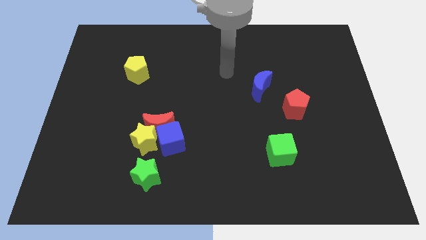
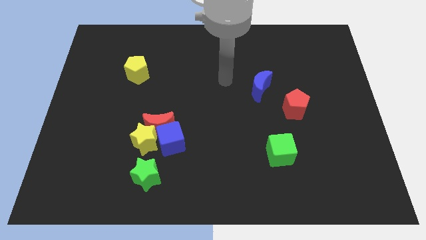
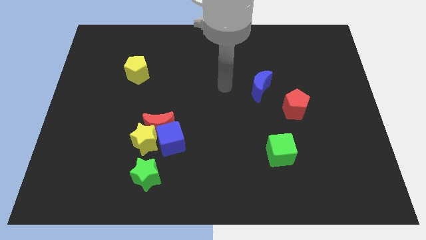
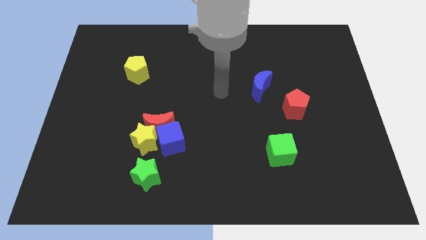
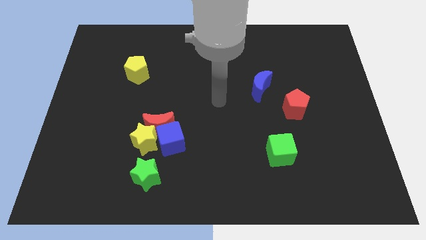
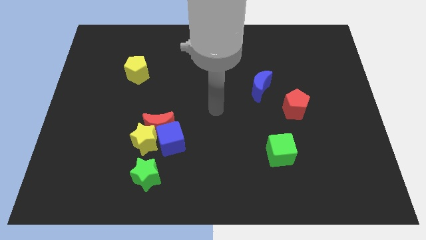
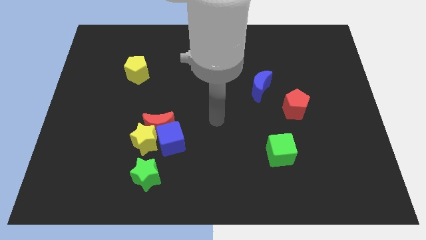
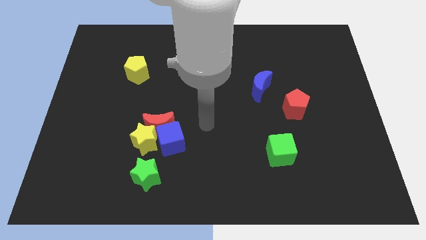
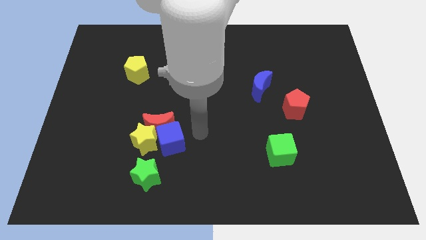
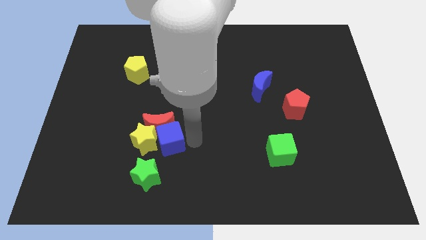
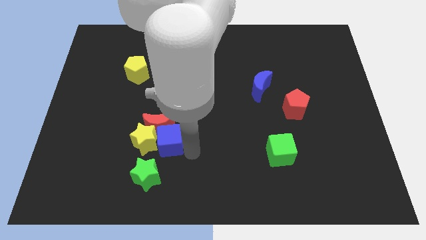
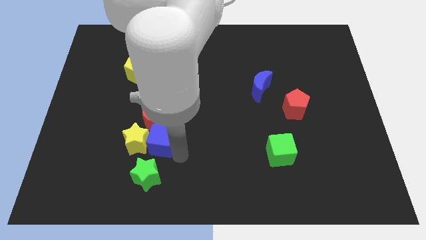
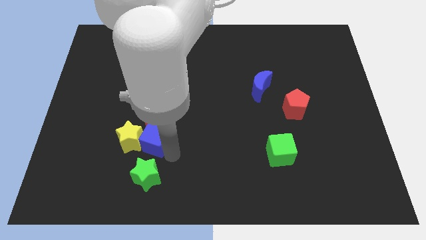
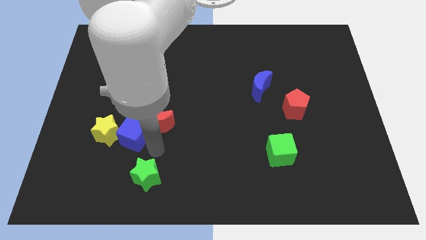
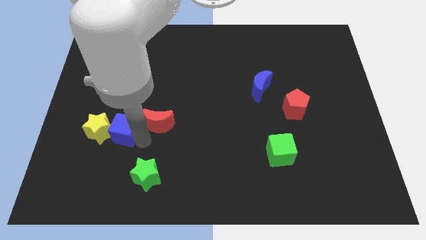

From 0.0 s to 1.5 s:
pull the red moon apart from the blue cube and yellow star

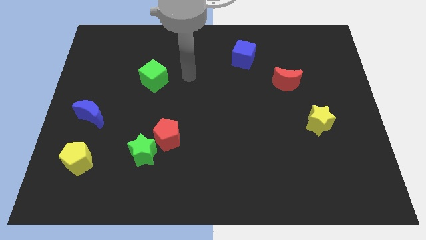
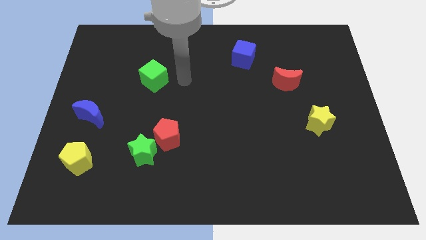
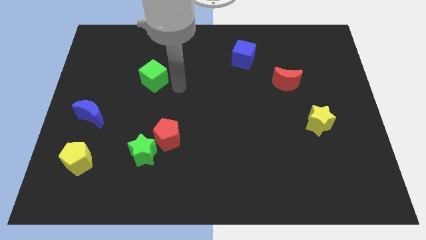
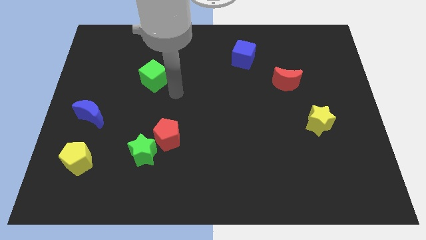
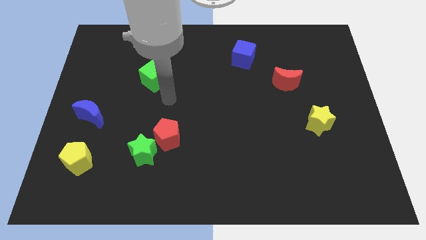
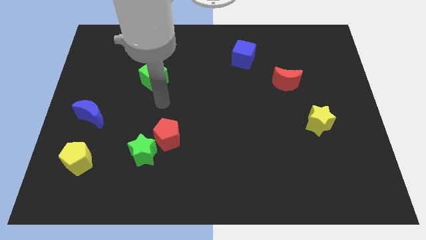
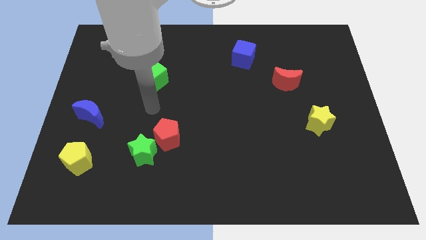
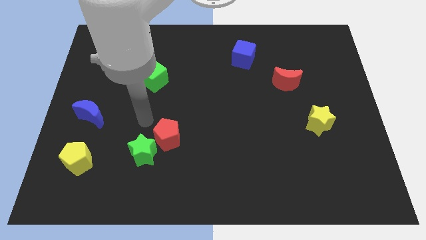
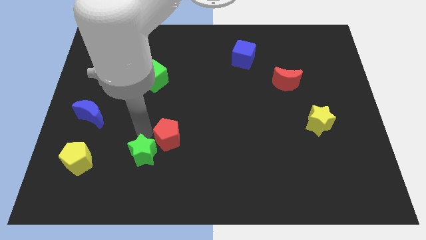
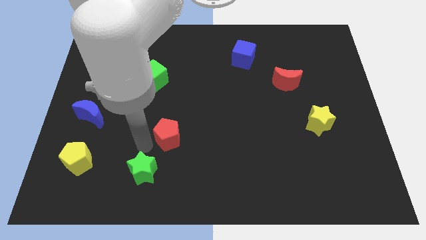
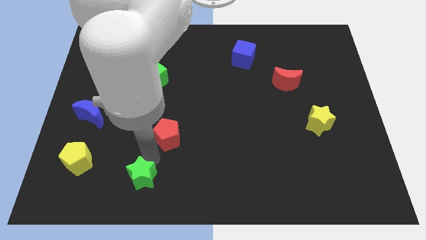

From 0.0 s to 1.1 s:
separate the red pentagon from the green star

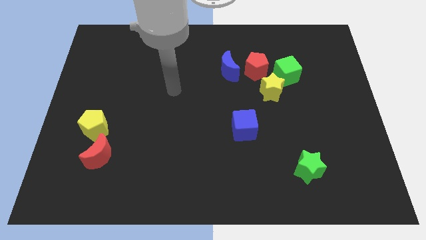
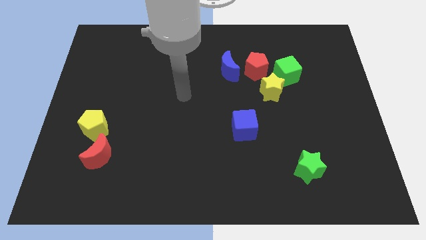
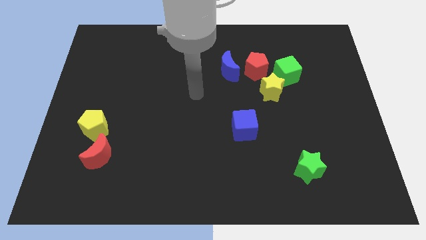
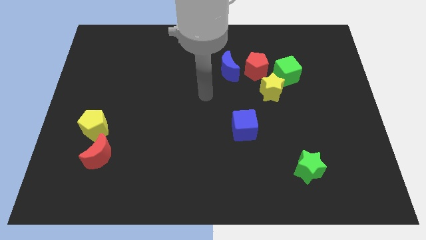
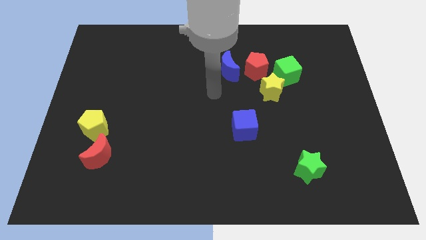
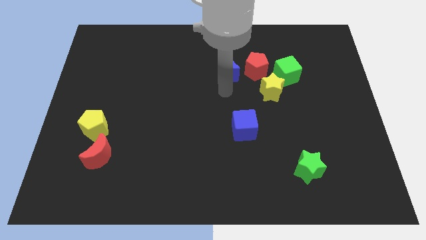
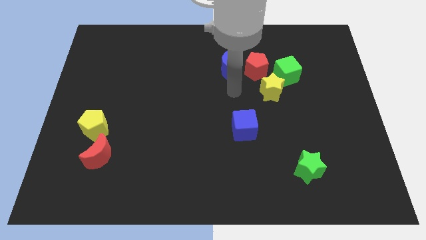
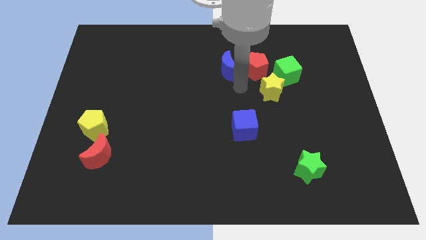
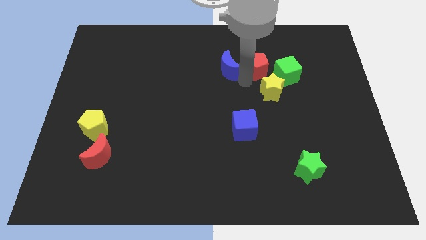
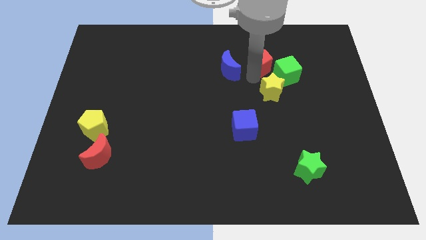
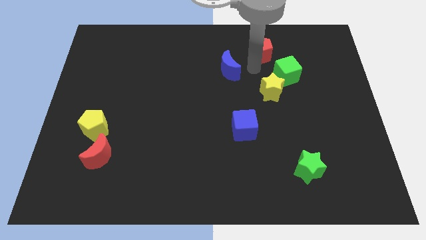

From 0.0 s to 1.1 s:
pull the blue moon apart from the red pentagon

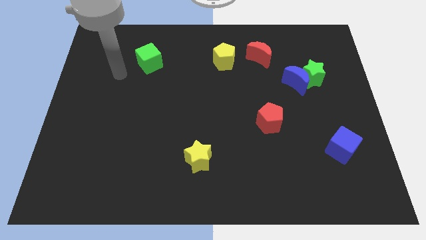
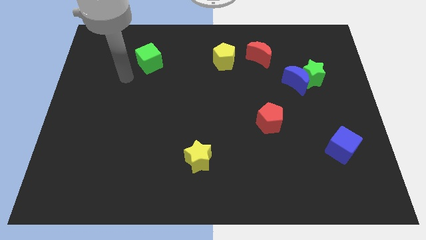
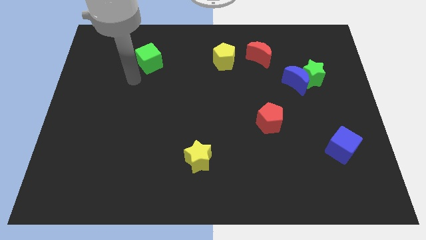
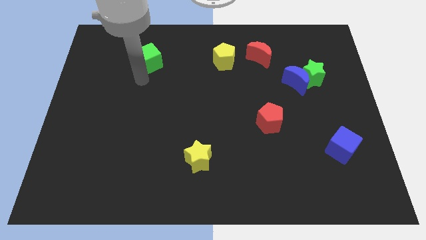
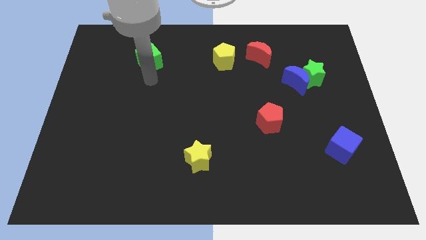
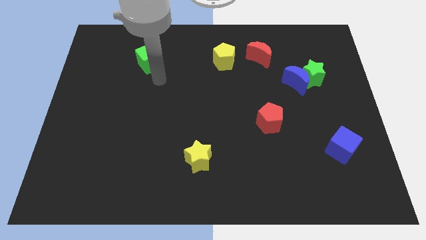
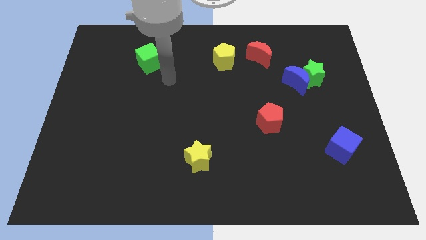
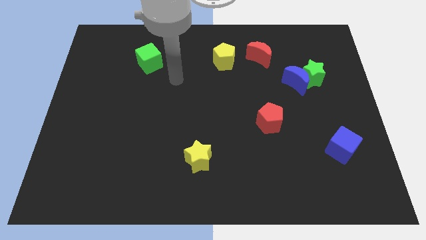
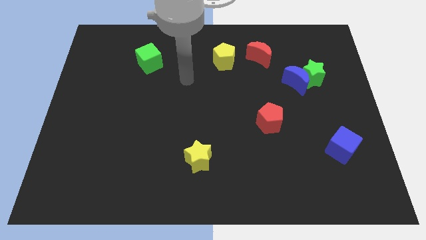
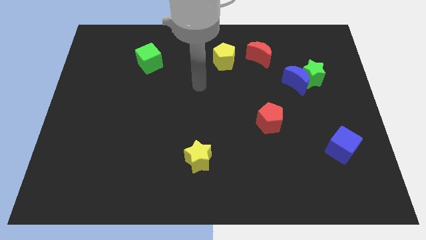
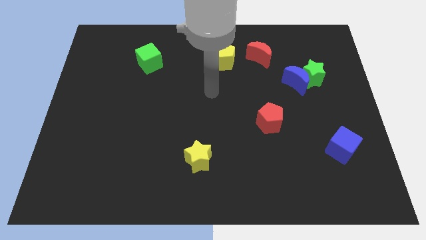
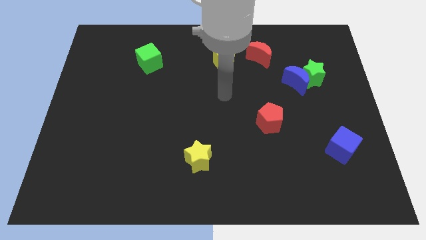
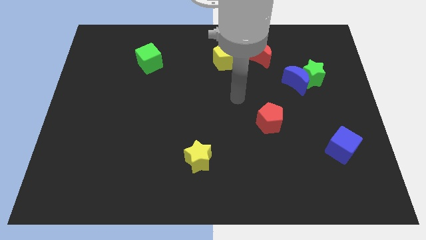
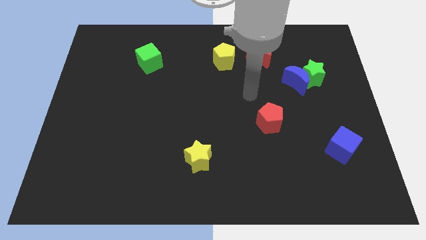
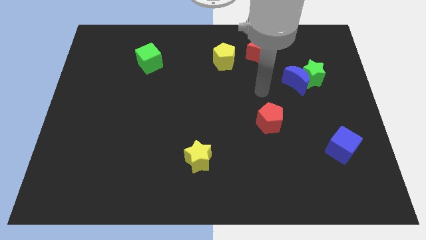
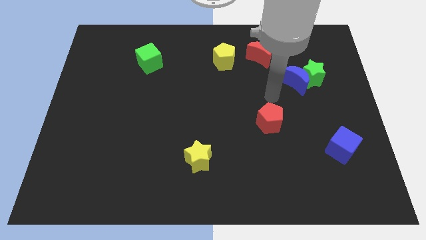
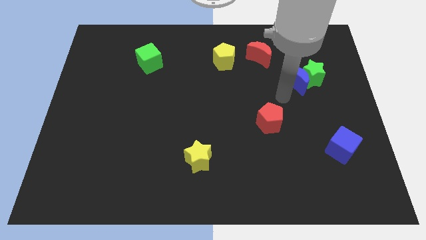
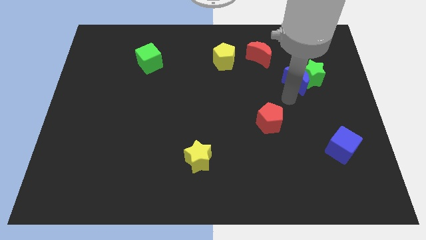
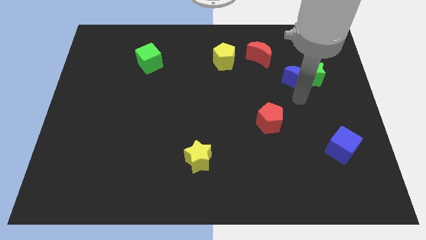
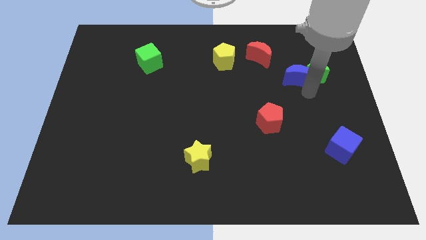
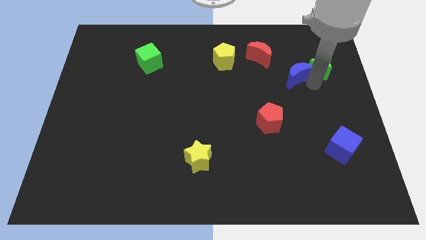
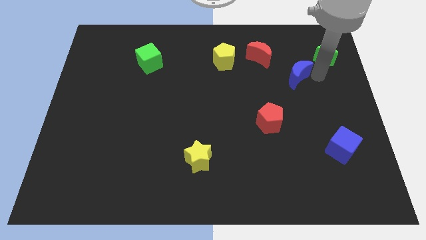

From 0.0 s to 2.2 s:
separate the blue moon from the green star

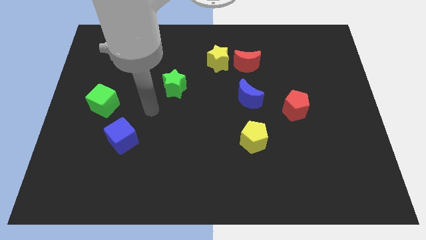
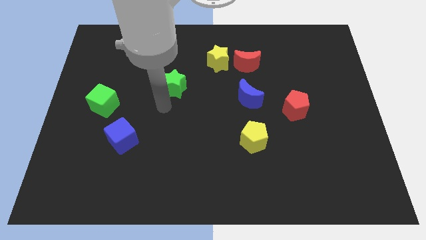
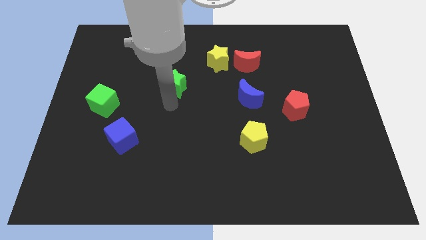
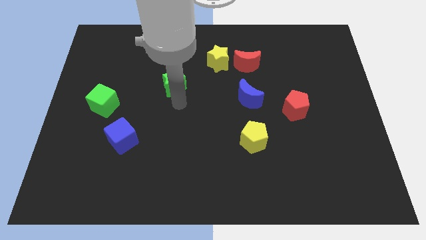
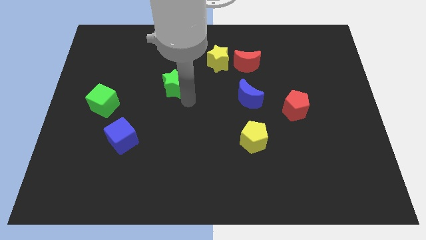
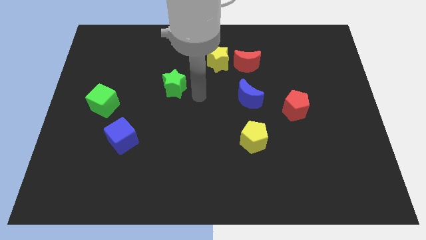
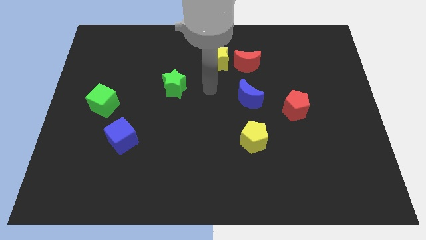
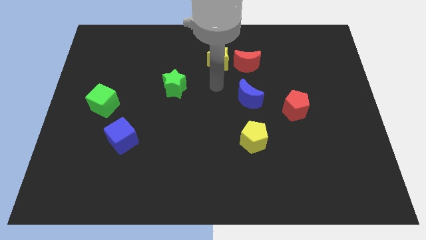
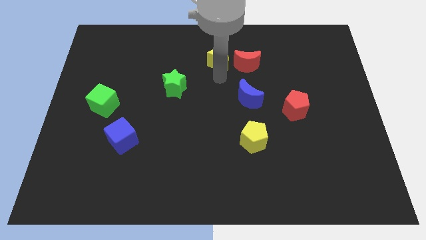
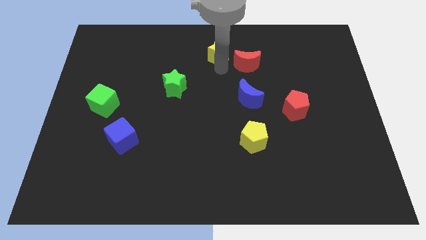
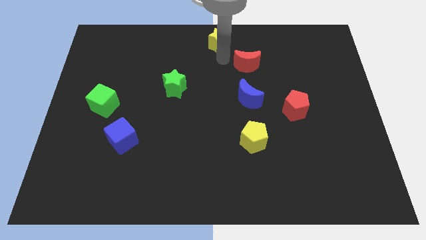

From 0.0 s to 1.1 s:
pull the red moon apart from the yellow star

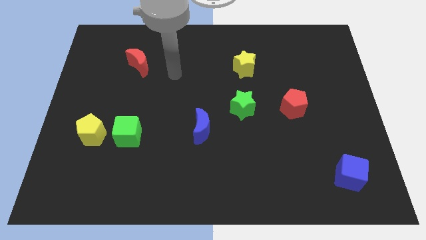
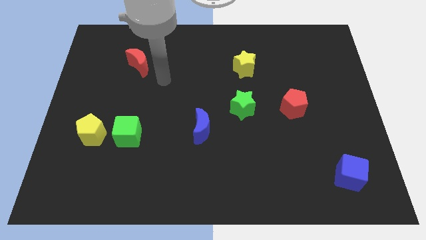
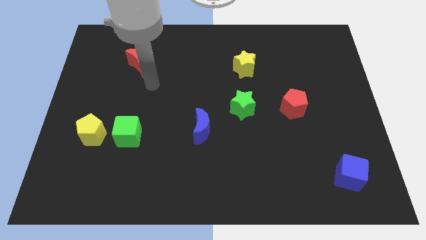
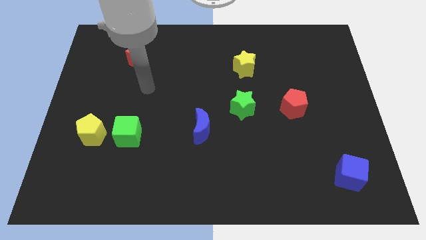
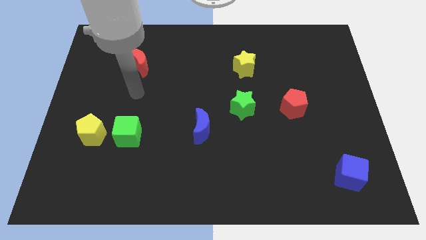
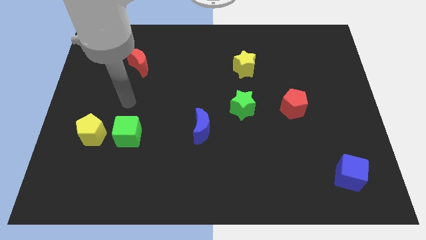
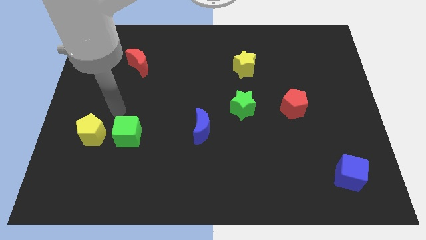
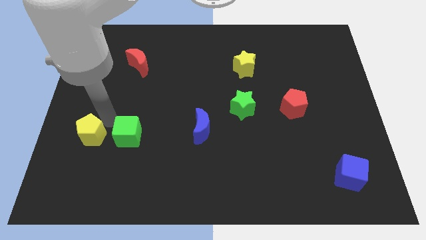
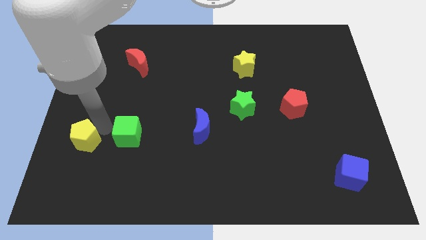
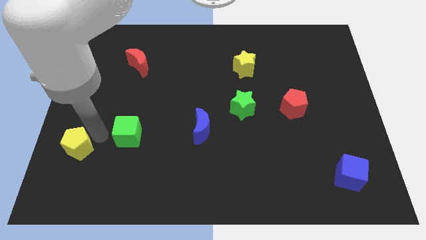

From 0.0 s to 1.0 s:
pull the green cube apart from the yellow pentagon

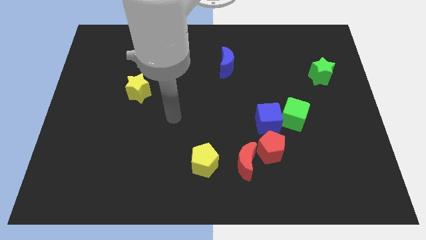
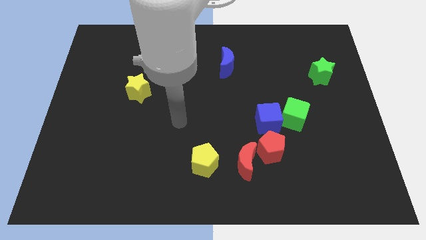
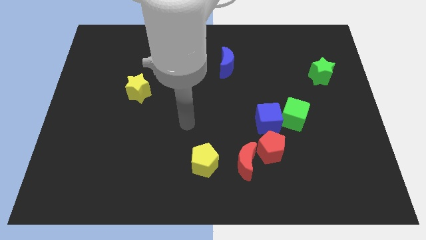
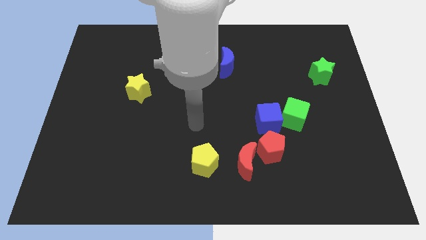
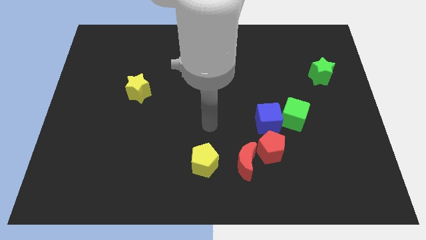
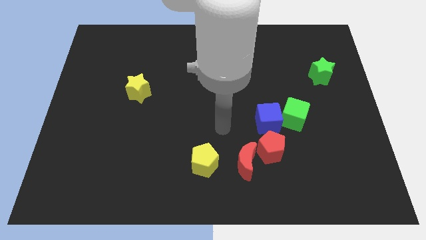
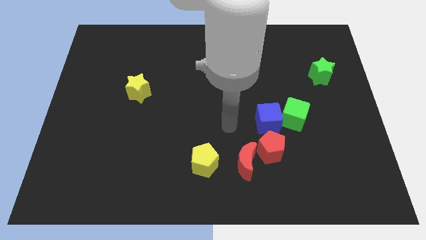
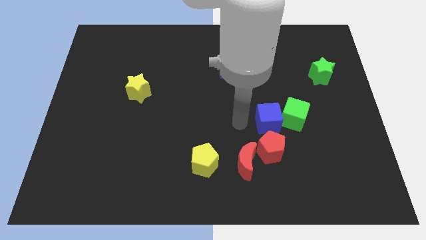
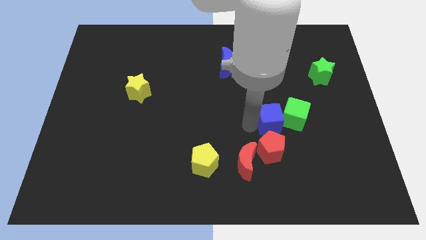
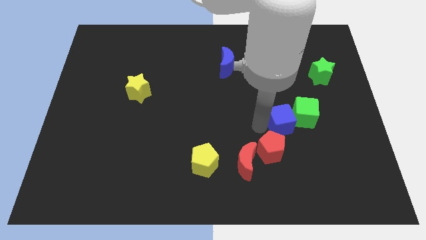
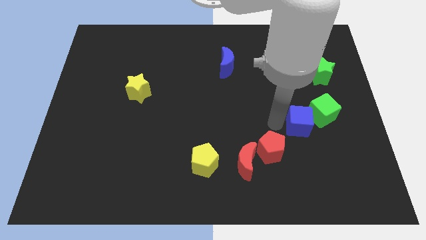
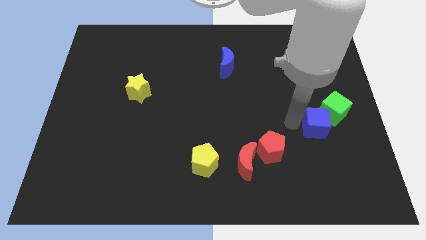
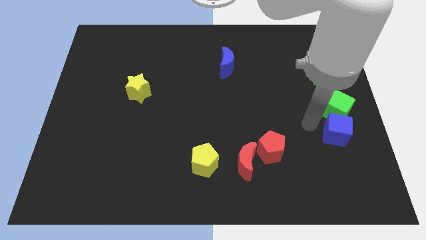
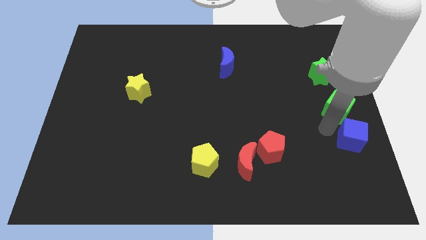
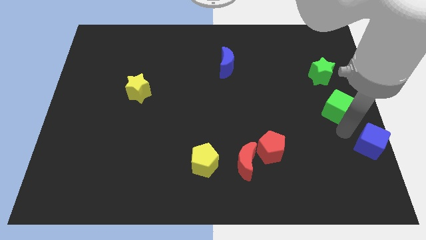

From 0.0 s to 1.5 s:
separate the green cube from the blue cube
